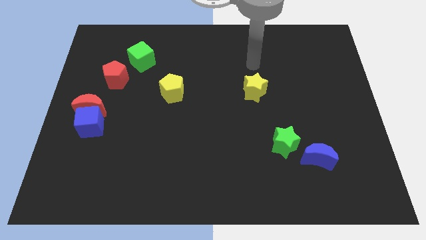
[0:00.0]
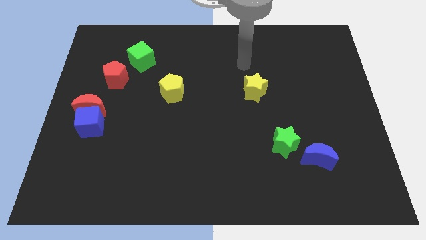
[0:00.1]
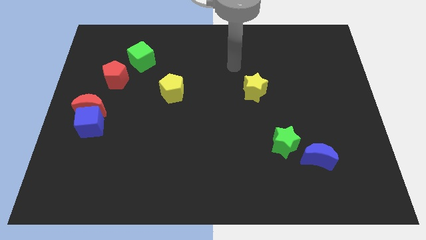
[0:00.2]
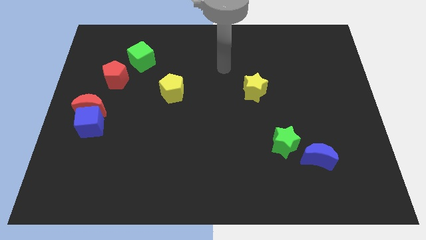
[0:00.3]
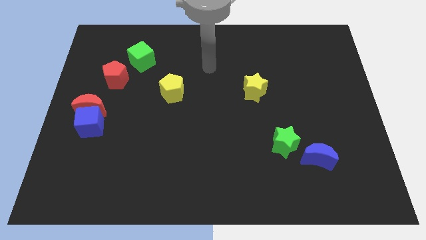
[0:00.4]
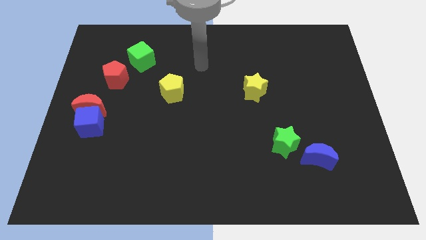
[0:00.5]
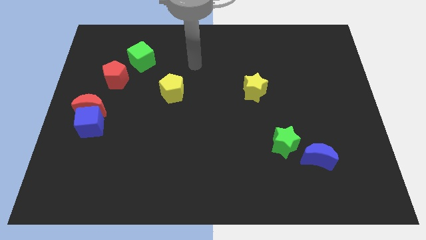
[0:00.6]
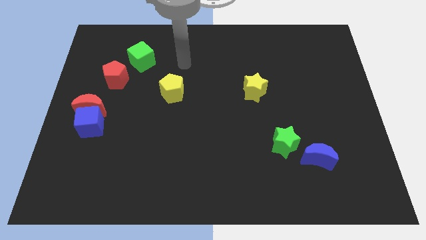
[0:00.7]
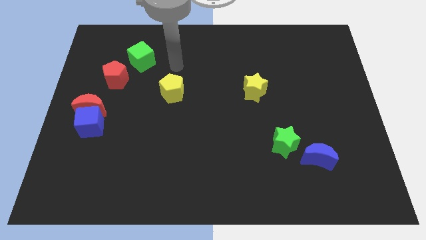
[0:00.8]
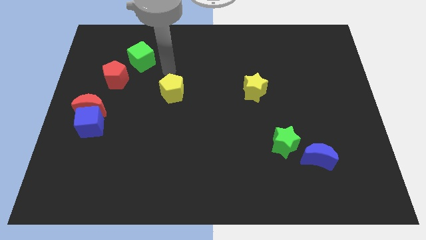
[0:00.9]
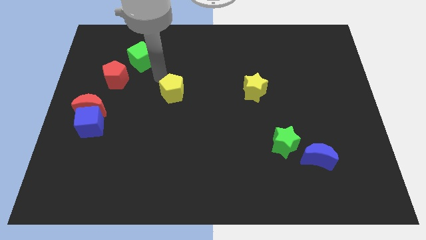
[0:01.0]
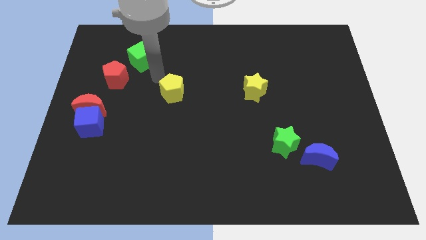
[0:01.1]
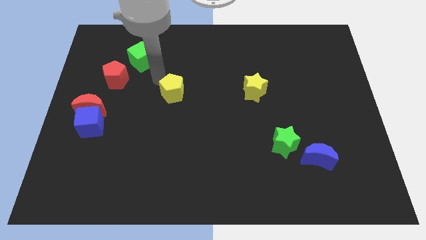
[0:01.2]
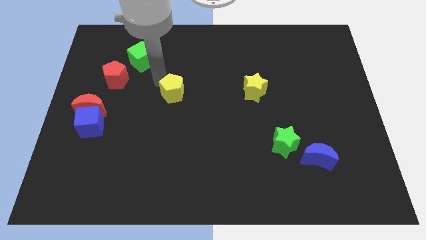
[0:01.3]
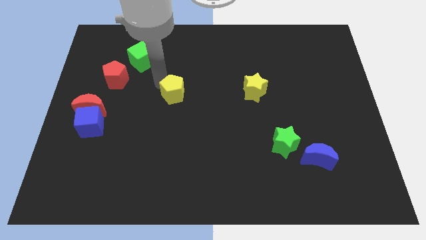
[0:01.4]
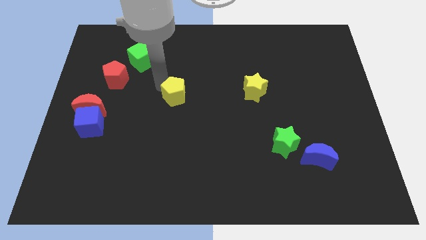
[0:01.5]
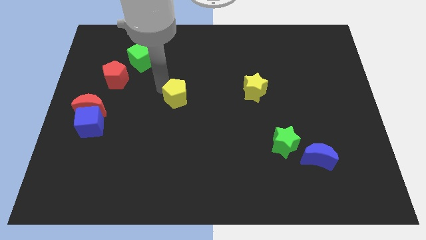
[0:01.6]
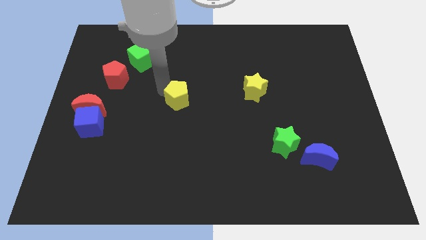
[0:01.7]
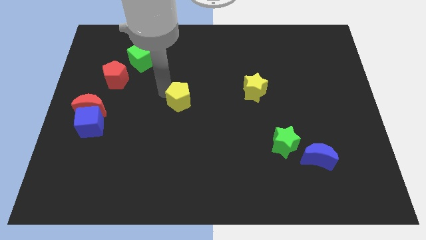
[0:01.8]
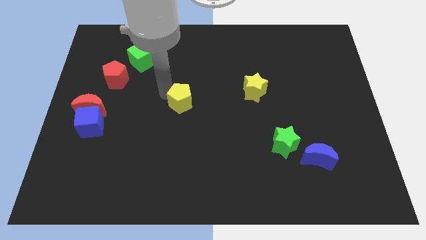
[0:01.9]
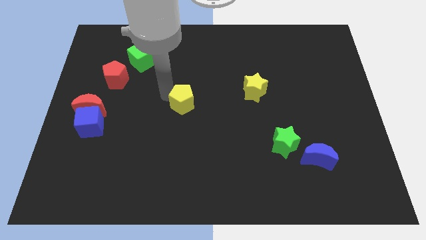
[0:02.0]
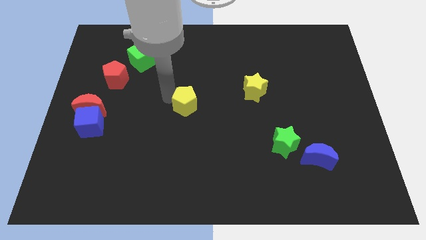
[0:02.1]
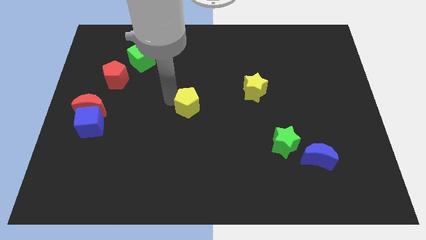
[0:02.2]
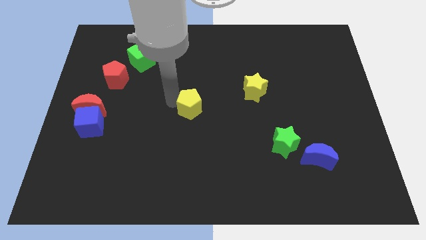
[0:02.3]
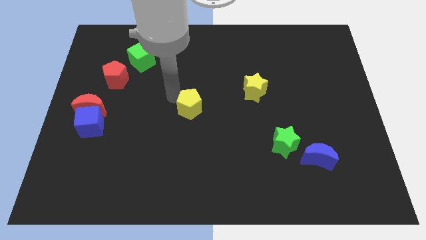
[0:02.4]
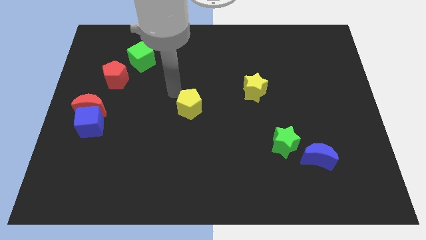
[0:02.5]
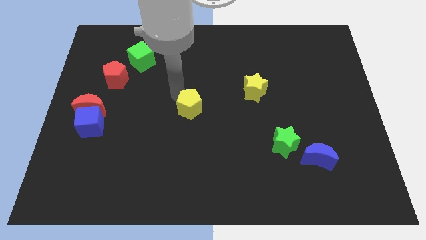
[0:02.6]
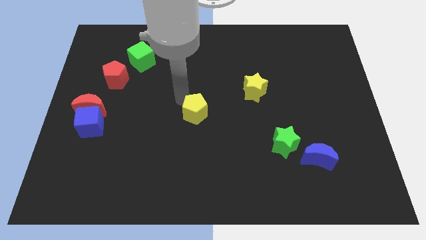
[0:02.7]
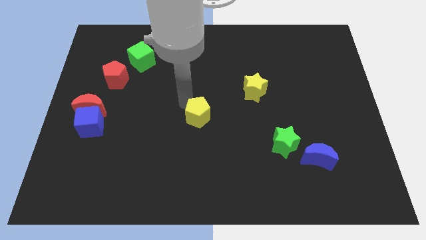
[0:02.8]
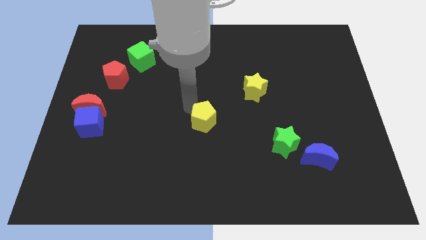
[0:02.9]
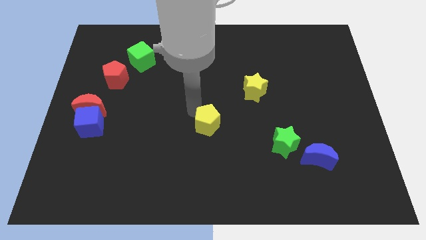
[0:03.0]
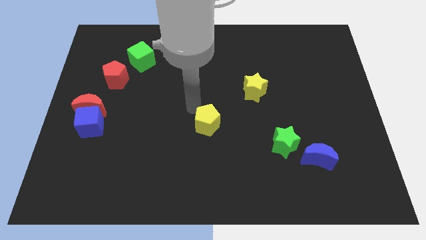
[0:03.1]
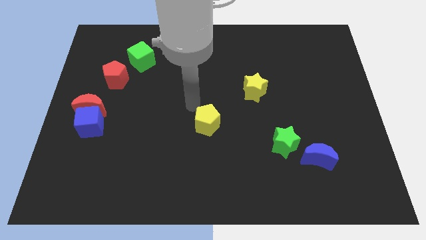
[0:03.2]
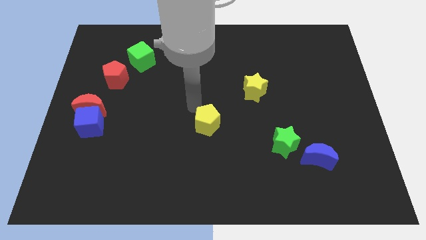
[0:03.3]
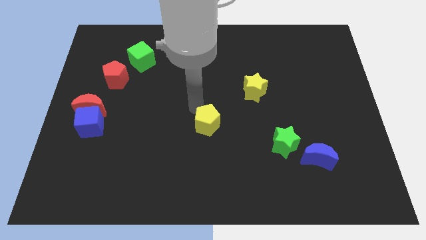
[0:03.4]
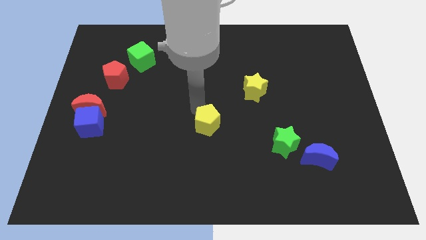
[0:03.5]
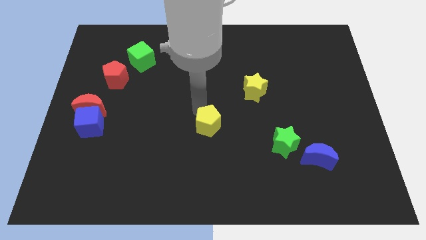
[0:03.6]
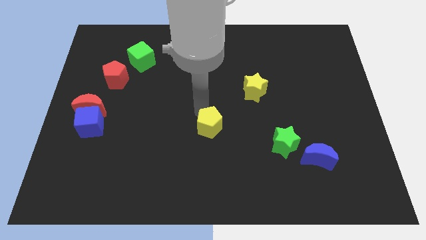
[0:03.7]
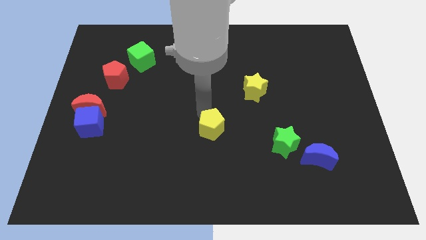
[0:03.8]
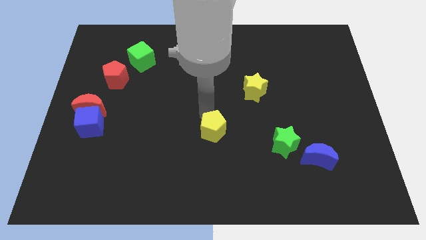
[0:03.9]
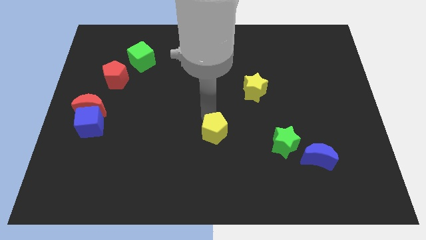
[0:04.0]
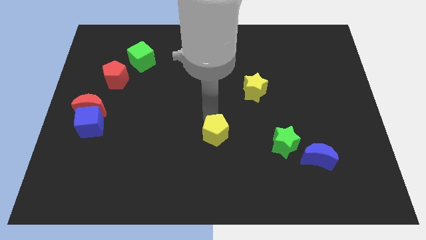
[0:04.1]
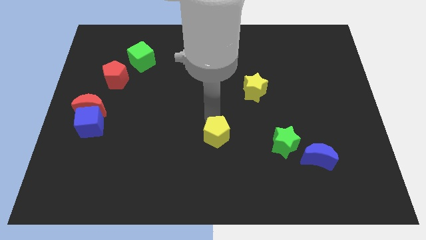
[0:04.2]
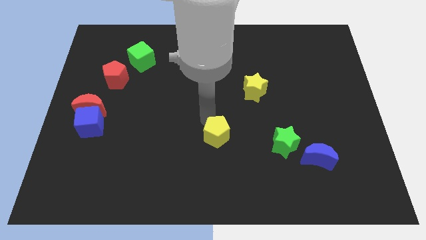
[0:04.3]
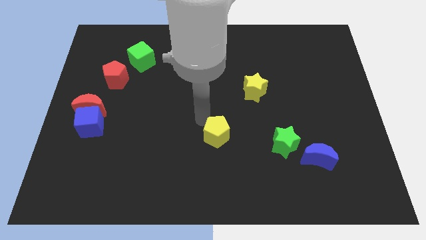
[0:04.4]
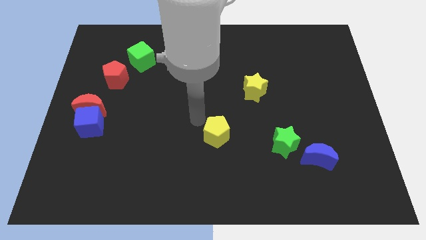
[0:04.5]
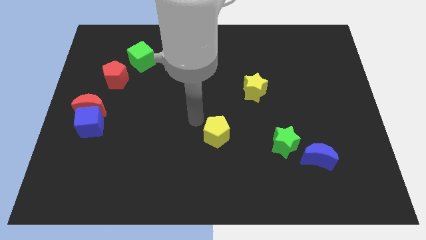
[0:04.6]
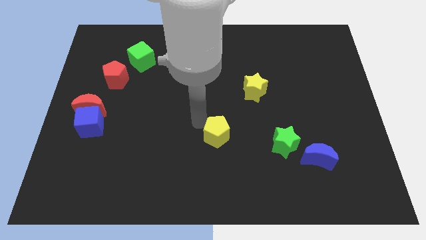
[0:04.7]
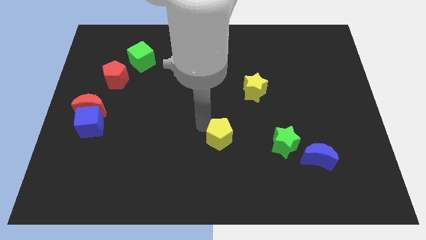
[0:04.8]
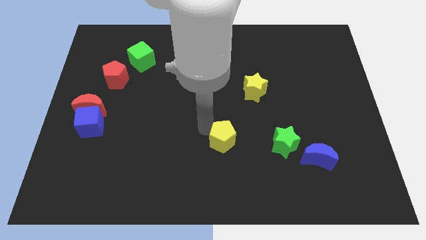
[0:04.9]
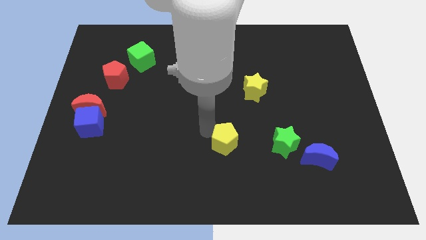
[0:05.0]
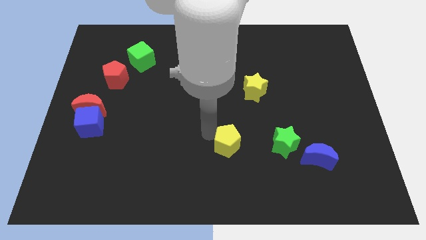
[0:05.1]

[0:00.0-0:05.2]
move the yellow pentagon downwards and then to the right

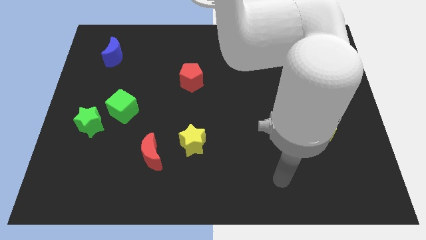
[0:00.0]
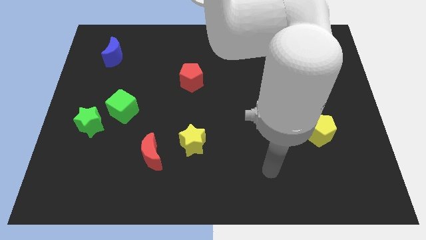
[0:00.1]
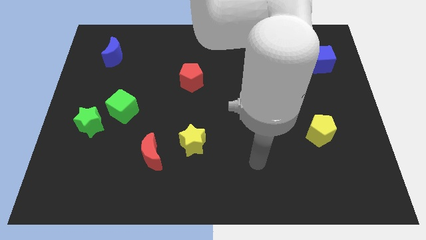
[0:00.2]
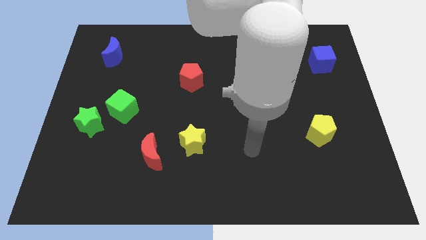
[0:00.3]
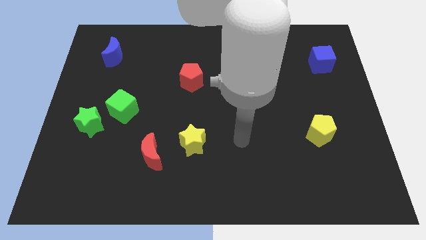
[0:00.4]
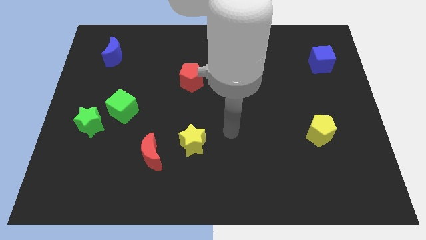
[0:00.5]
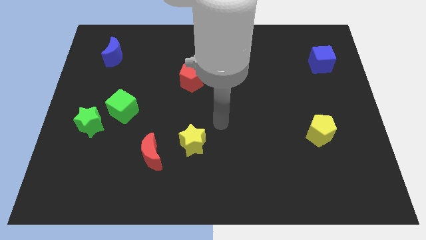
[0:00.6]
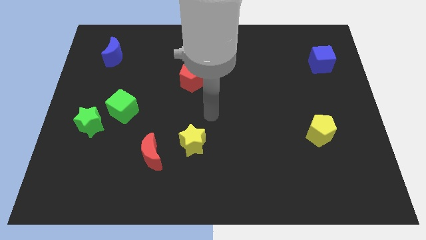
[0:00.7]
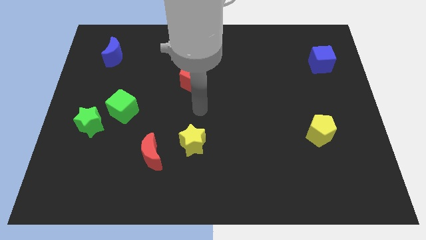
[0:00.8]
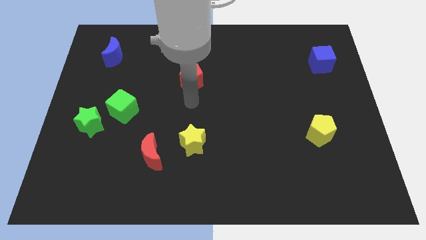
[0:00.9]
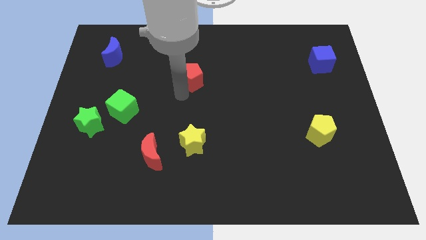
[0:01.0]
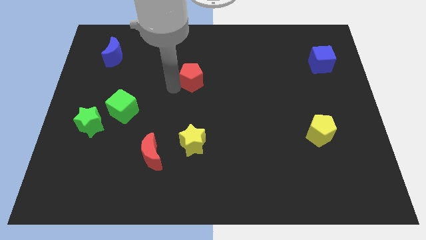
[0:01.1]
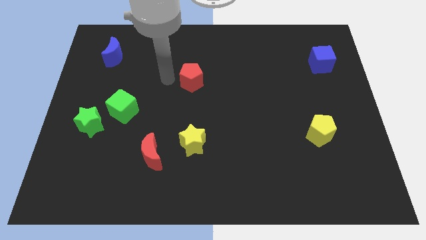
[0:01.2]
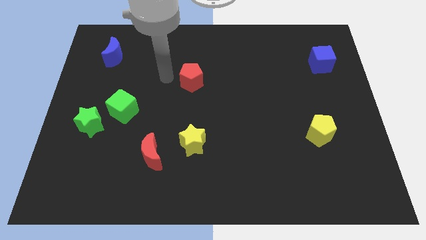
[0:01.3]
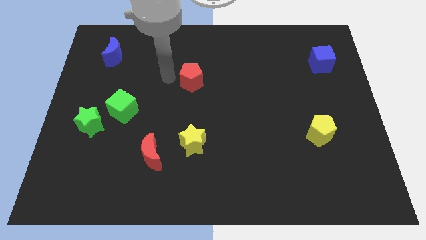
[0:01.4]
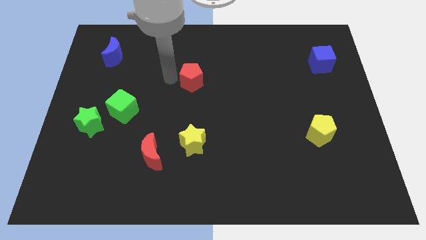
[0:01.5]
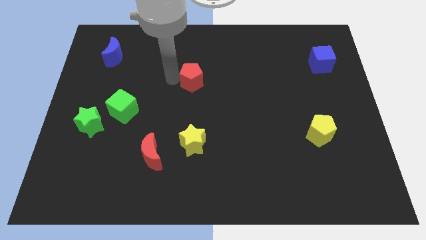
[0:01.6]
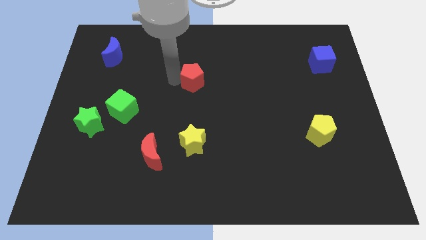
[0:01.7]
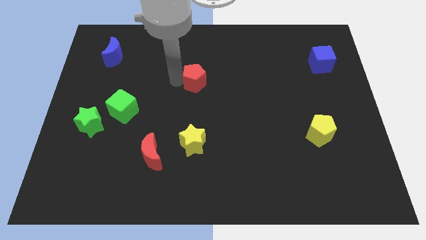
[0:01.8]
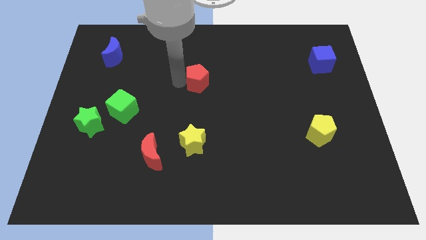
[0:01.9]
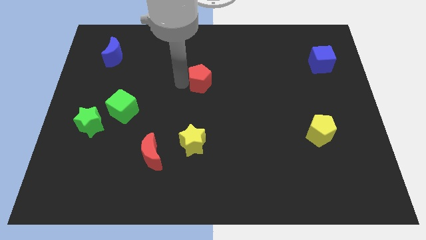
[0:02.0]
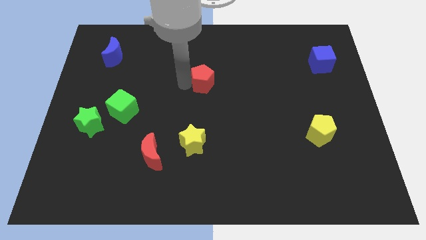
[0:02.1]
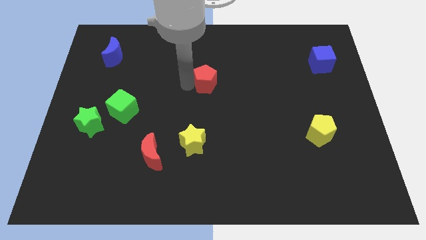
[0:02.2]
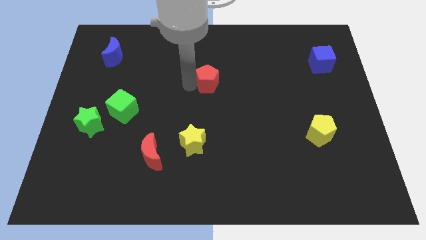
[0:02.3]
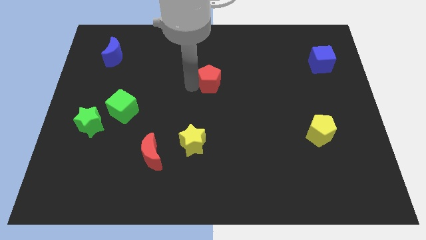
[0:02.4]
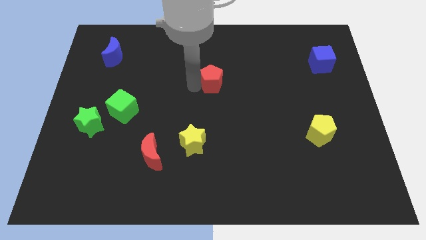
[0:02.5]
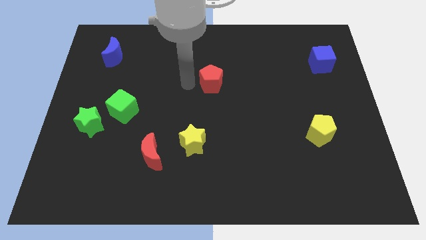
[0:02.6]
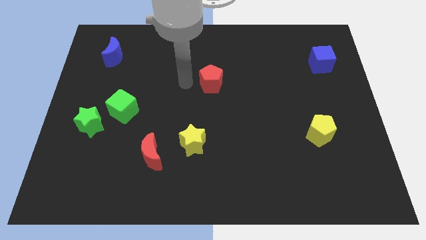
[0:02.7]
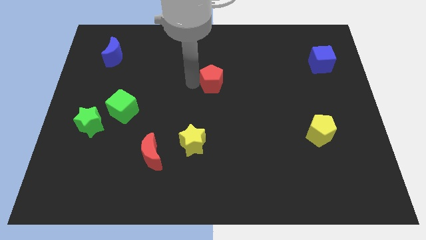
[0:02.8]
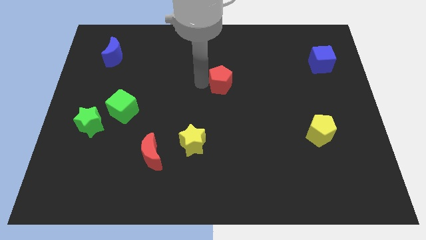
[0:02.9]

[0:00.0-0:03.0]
push the red pentagon a little bit to the right
